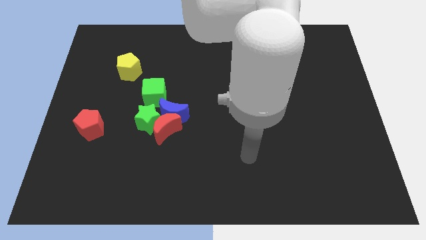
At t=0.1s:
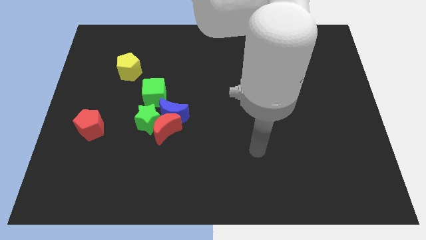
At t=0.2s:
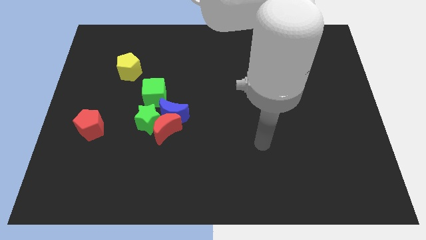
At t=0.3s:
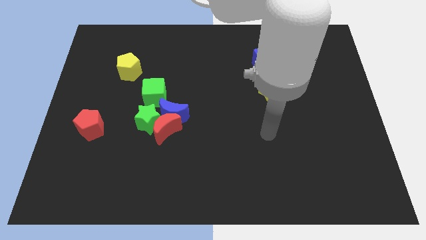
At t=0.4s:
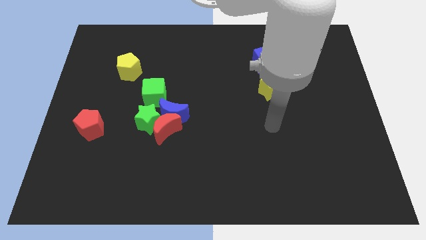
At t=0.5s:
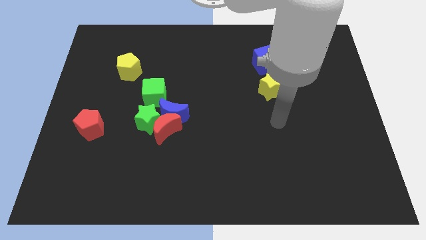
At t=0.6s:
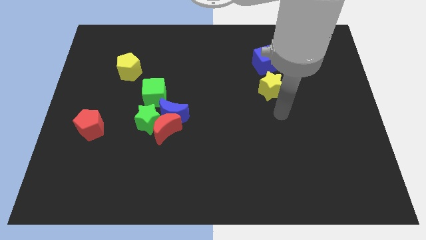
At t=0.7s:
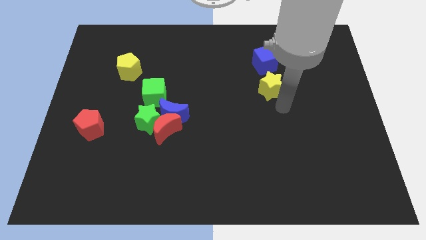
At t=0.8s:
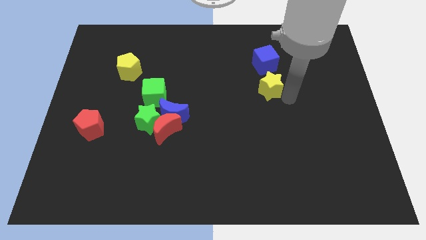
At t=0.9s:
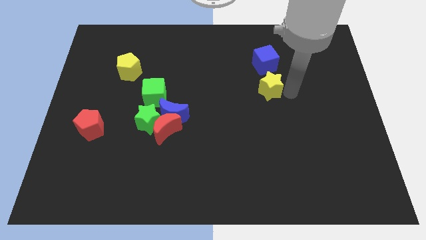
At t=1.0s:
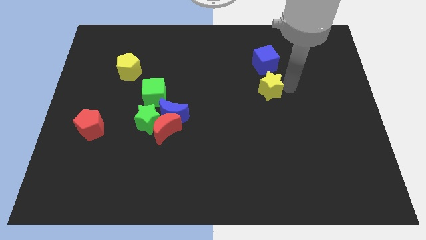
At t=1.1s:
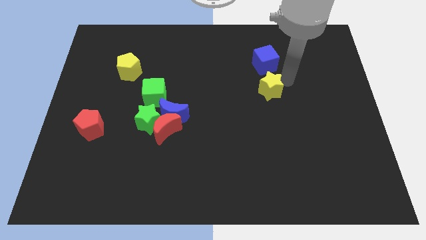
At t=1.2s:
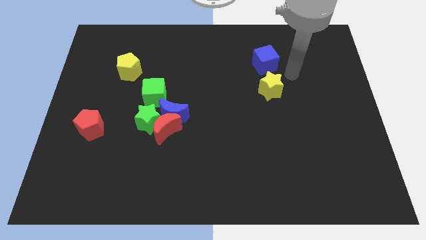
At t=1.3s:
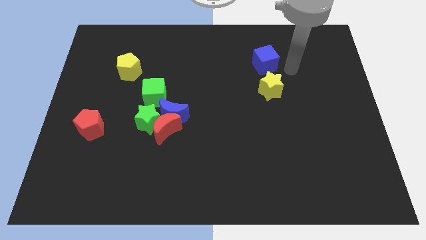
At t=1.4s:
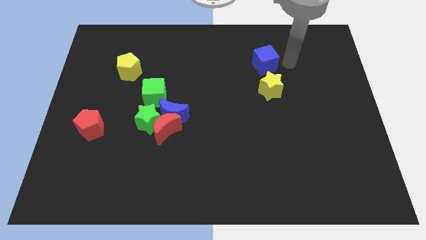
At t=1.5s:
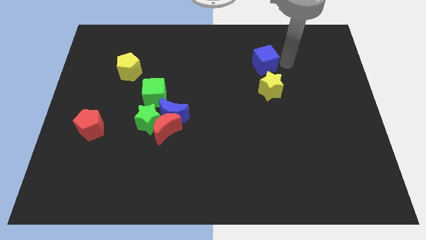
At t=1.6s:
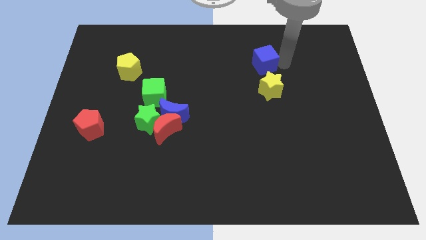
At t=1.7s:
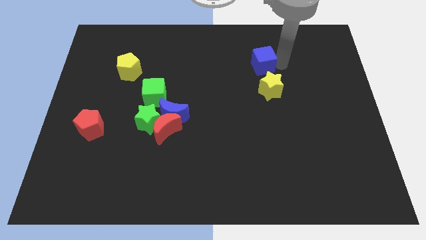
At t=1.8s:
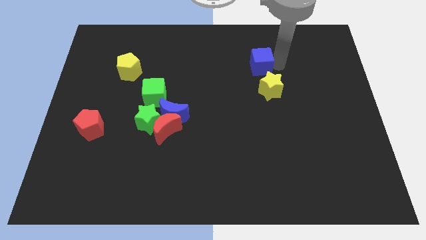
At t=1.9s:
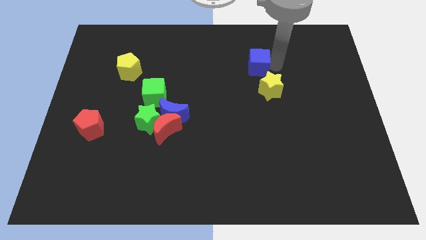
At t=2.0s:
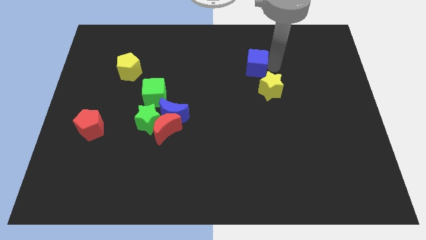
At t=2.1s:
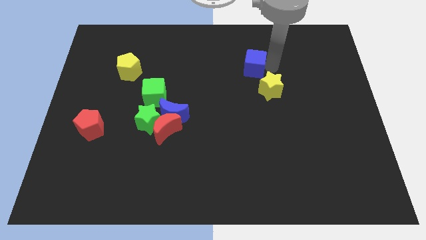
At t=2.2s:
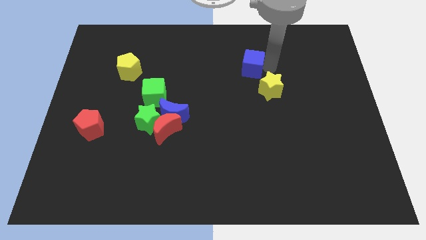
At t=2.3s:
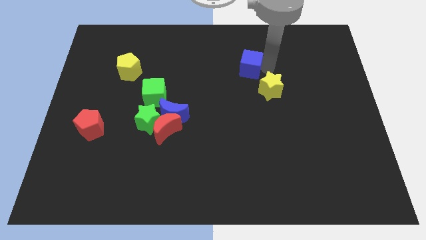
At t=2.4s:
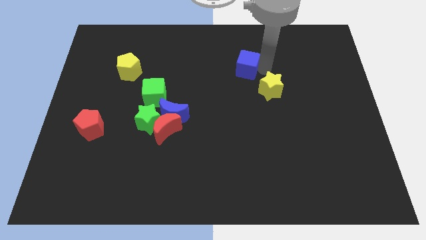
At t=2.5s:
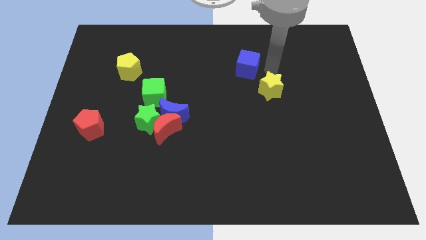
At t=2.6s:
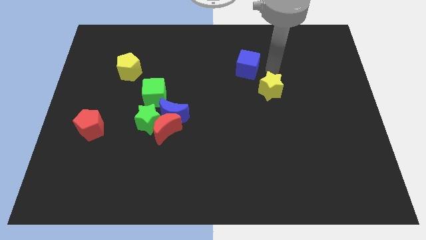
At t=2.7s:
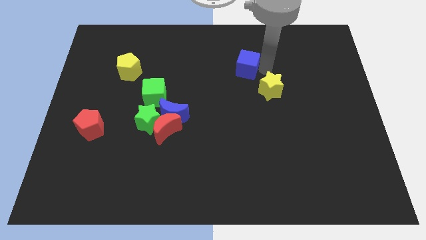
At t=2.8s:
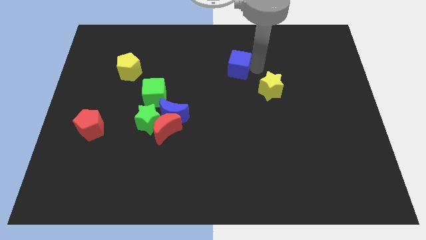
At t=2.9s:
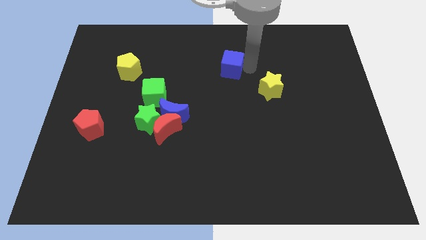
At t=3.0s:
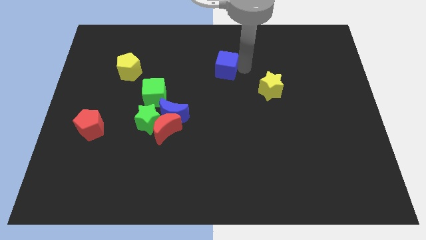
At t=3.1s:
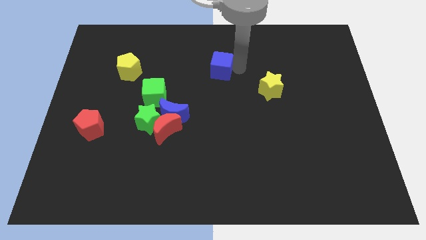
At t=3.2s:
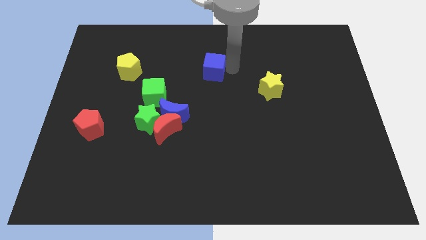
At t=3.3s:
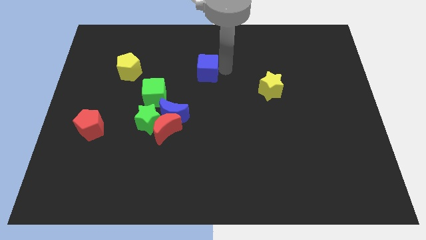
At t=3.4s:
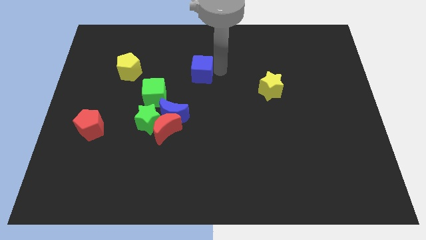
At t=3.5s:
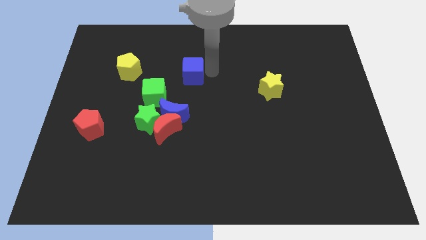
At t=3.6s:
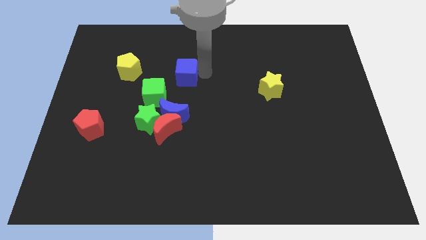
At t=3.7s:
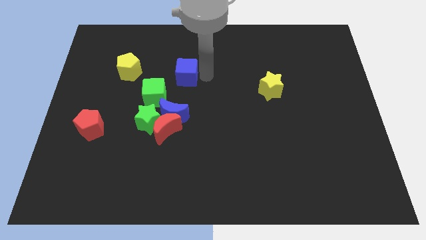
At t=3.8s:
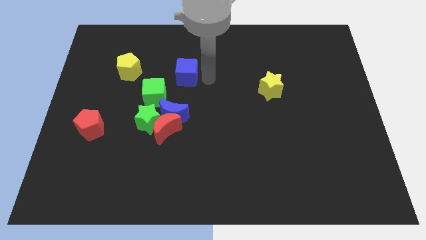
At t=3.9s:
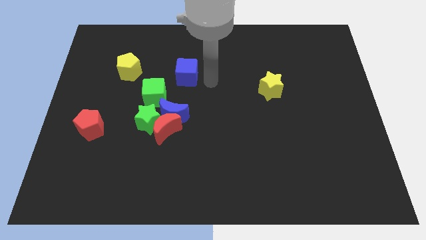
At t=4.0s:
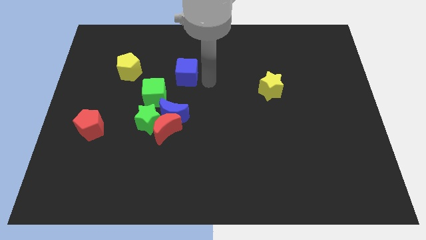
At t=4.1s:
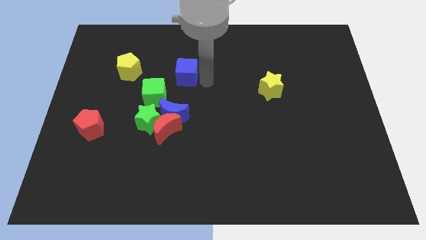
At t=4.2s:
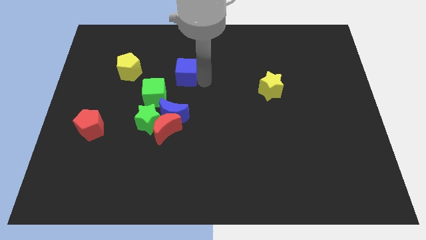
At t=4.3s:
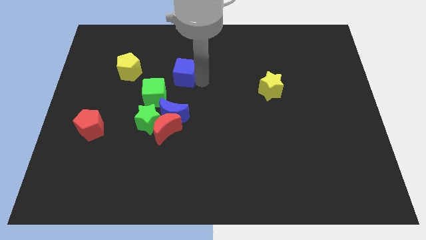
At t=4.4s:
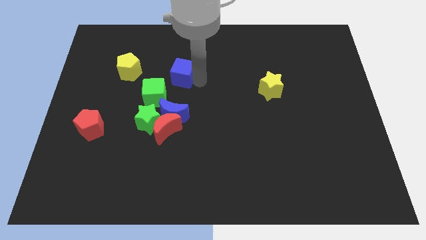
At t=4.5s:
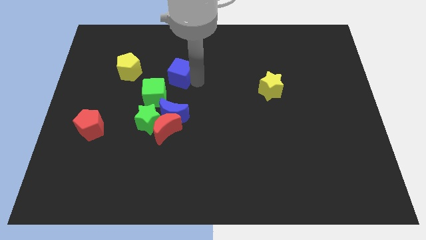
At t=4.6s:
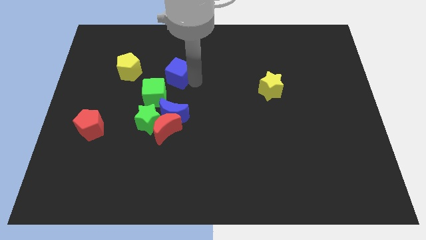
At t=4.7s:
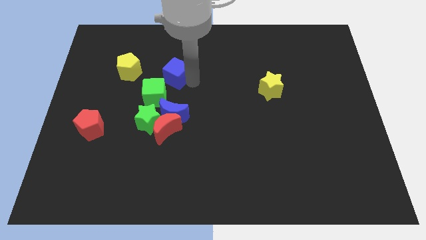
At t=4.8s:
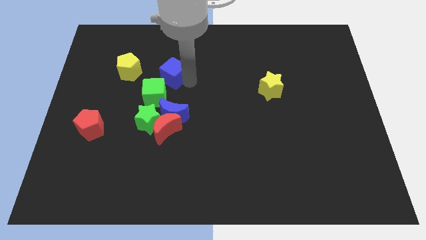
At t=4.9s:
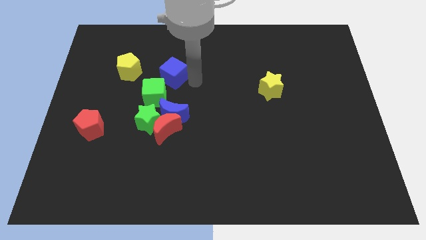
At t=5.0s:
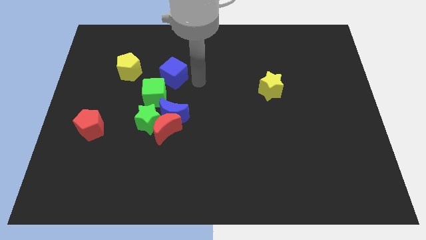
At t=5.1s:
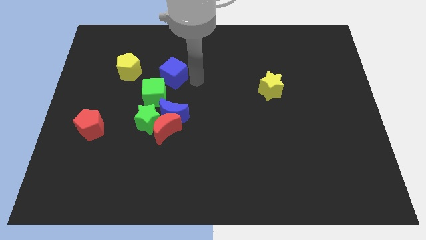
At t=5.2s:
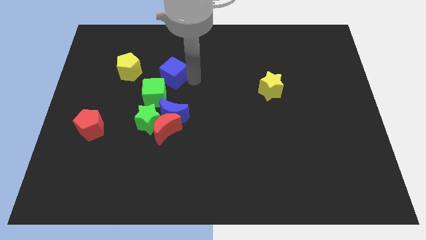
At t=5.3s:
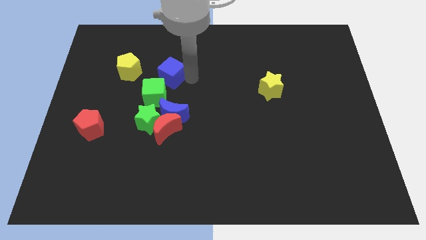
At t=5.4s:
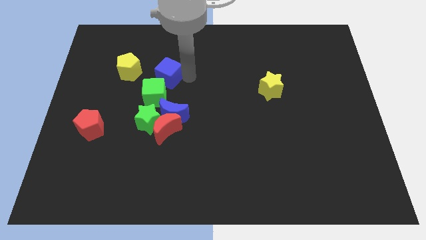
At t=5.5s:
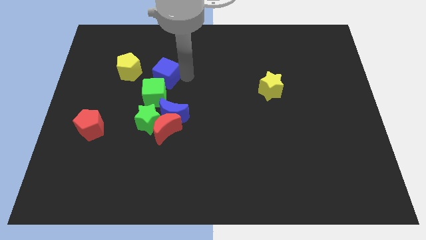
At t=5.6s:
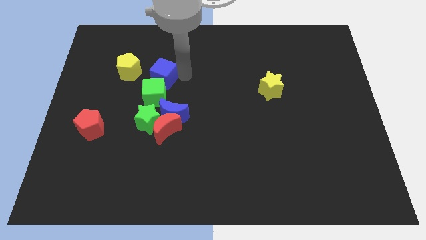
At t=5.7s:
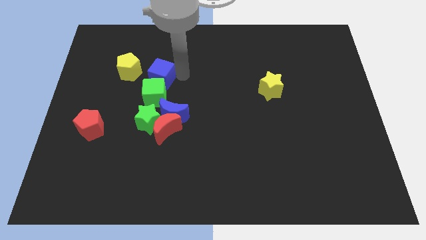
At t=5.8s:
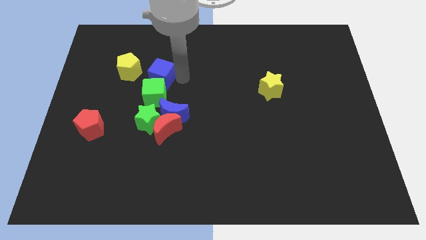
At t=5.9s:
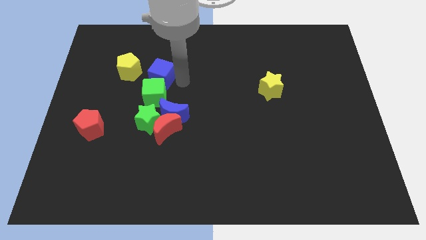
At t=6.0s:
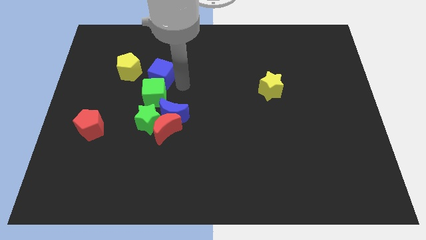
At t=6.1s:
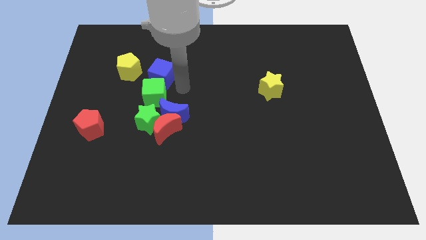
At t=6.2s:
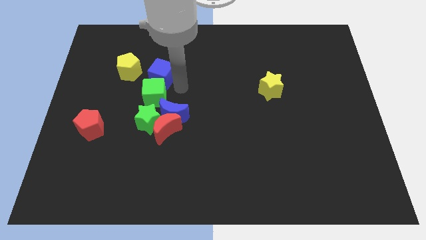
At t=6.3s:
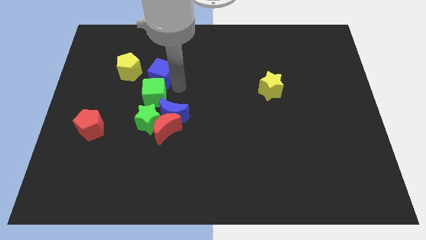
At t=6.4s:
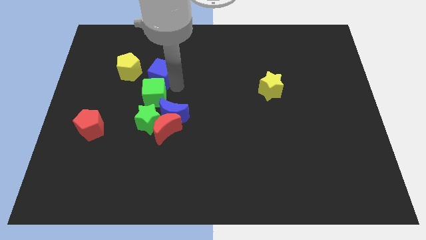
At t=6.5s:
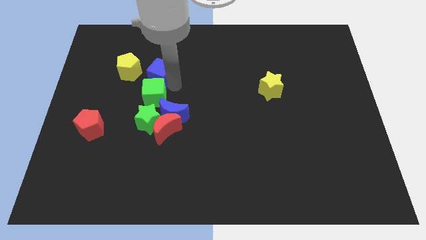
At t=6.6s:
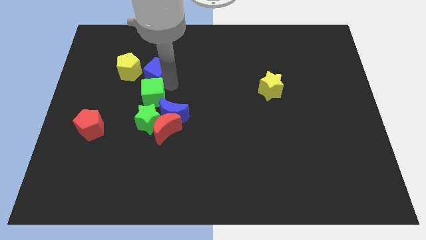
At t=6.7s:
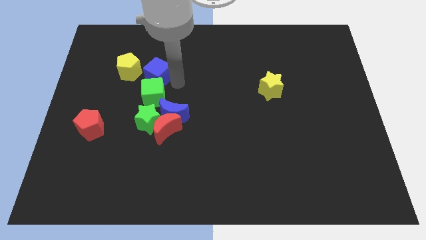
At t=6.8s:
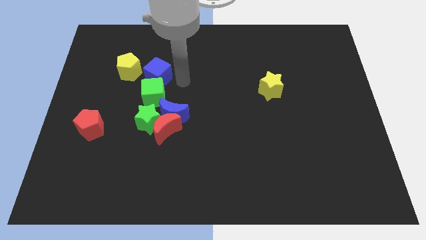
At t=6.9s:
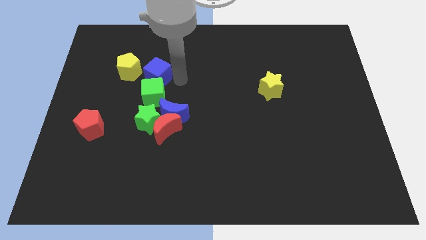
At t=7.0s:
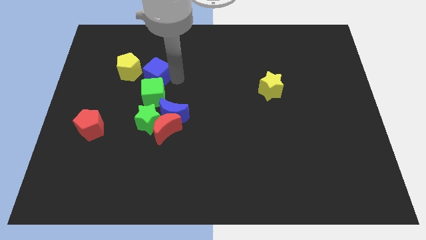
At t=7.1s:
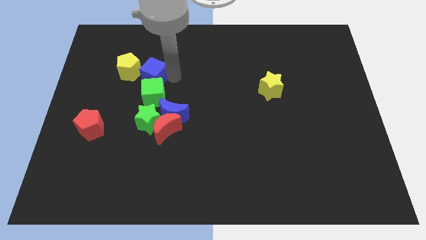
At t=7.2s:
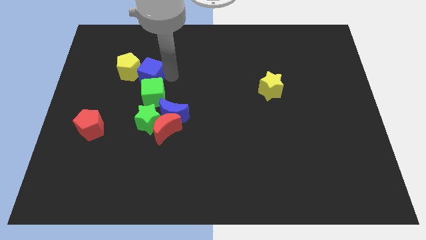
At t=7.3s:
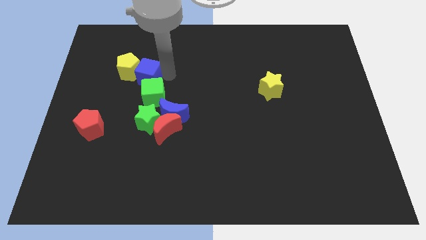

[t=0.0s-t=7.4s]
push the blue cube to the yellow pentagon
